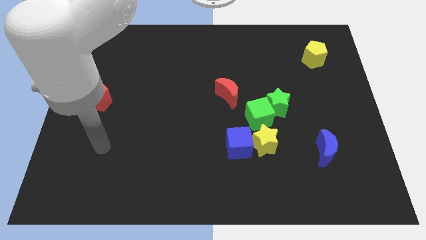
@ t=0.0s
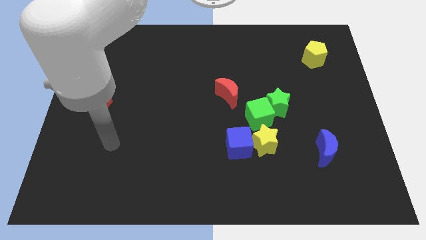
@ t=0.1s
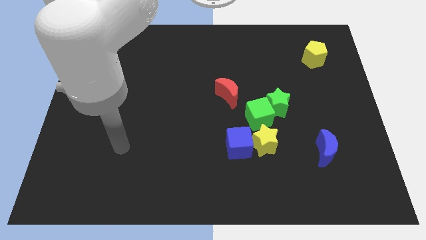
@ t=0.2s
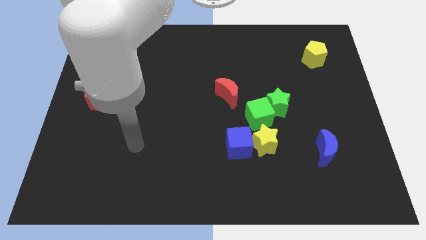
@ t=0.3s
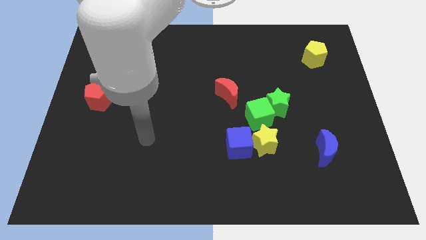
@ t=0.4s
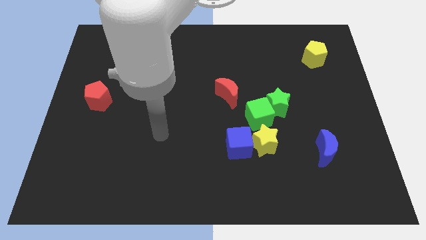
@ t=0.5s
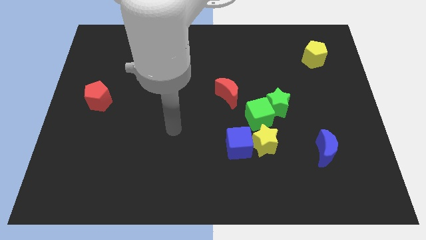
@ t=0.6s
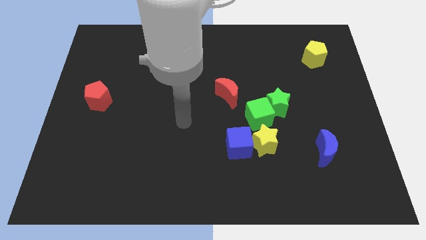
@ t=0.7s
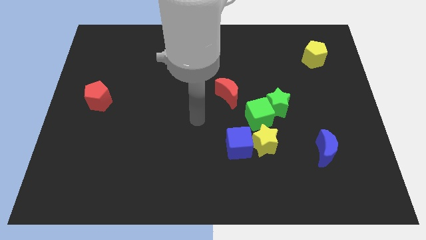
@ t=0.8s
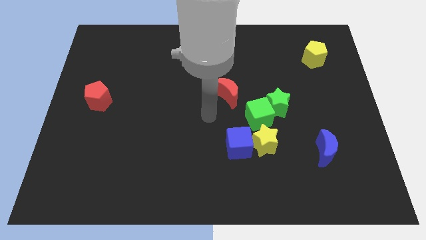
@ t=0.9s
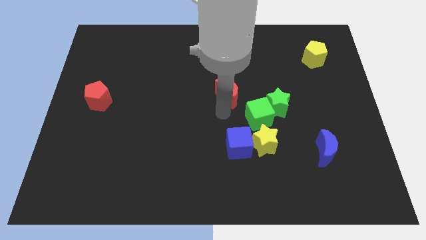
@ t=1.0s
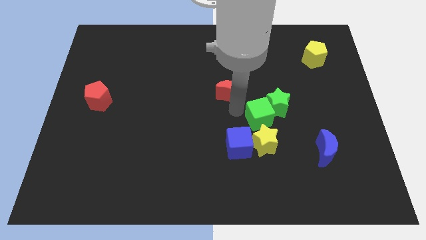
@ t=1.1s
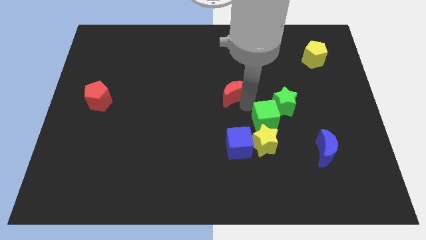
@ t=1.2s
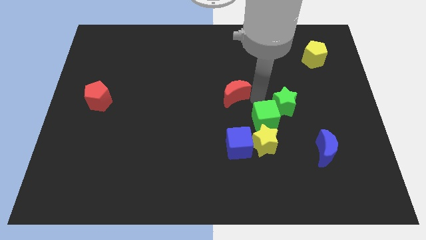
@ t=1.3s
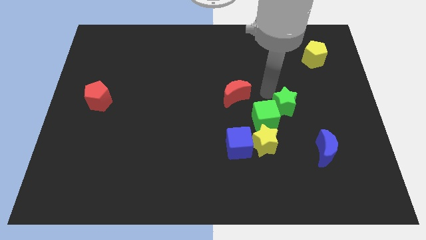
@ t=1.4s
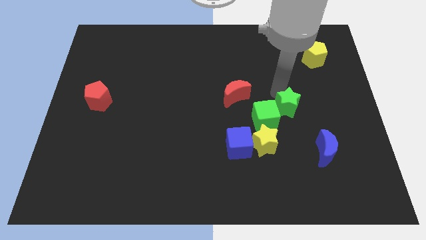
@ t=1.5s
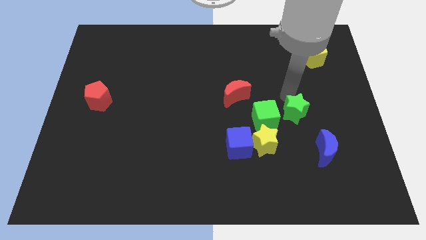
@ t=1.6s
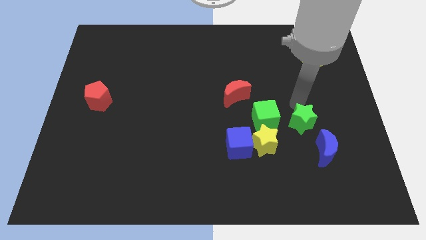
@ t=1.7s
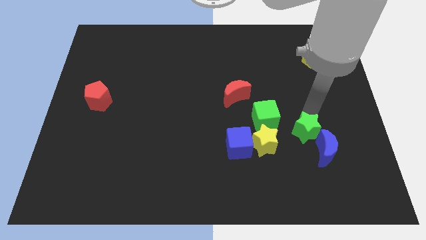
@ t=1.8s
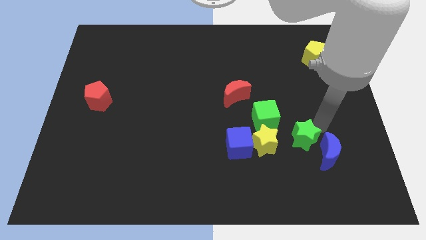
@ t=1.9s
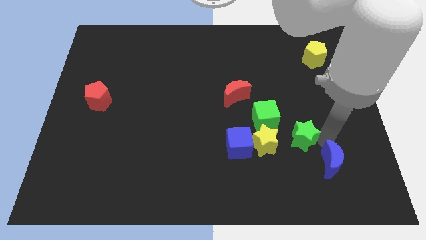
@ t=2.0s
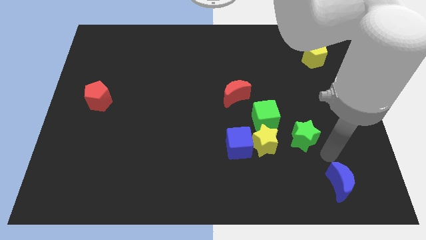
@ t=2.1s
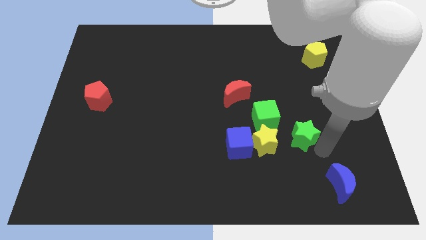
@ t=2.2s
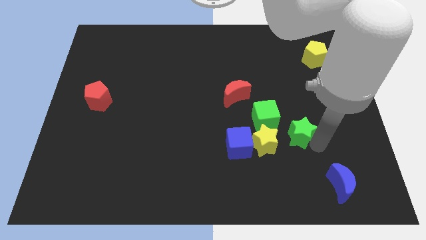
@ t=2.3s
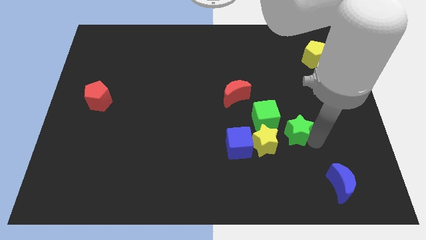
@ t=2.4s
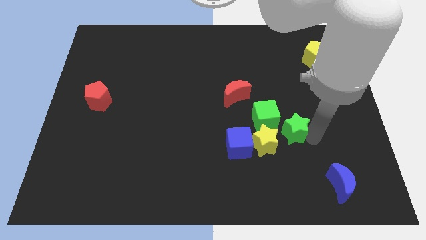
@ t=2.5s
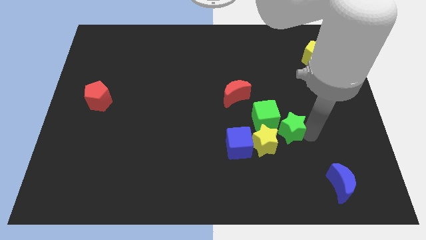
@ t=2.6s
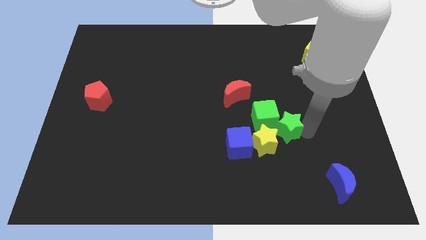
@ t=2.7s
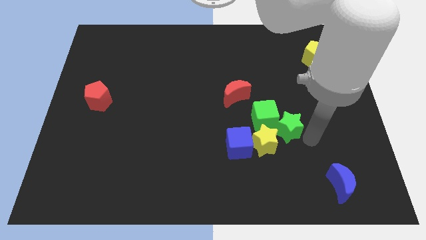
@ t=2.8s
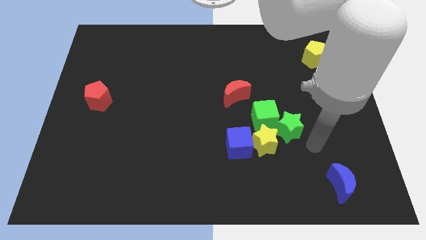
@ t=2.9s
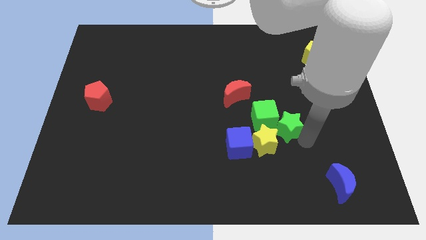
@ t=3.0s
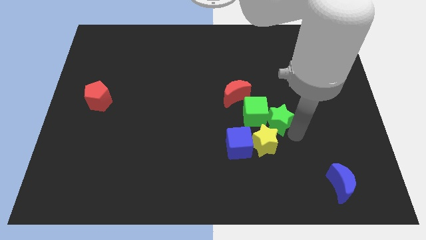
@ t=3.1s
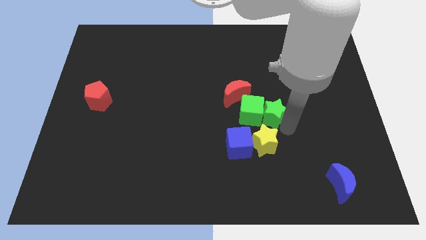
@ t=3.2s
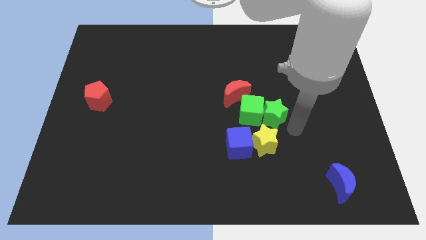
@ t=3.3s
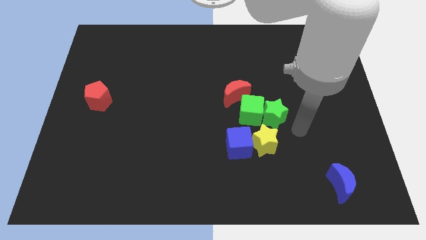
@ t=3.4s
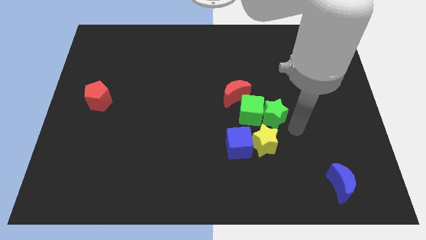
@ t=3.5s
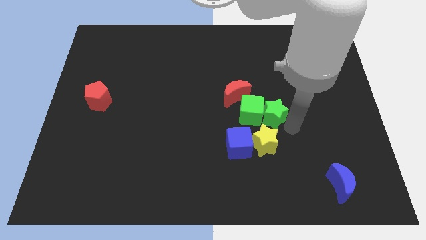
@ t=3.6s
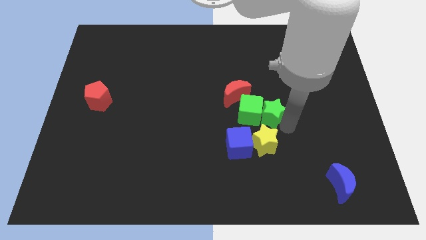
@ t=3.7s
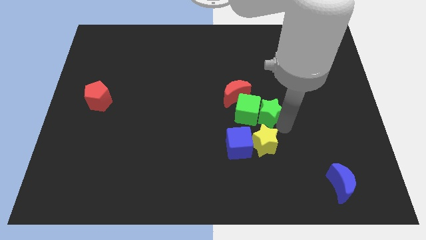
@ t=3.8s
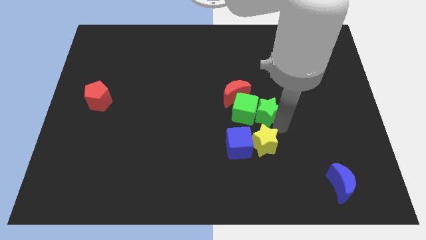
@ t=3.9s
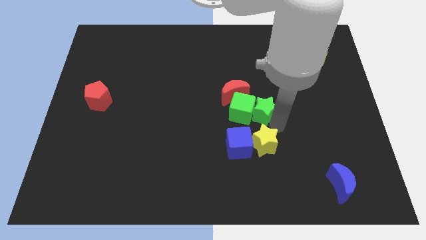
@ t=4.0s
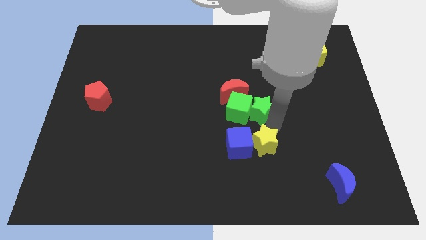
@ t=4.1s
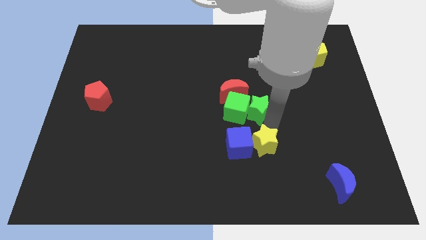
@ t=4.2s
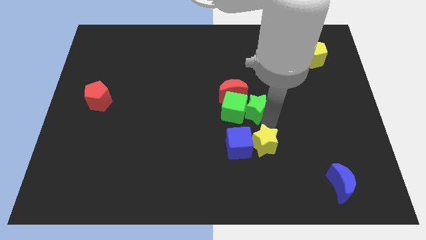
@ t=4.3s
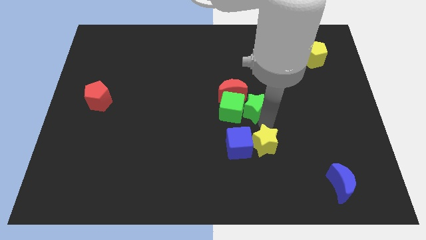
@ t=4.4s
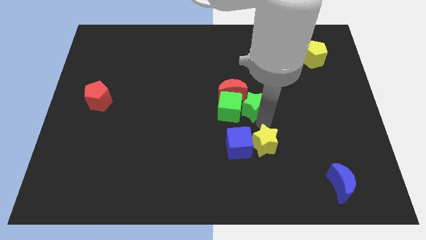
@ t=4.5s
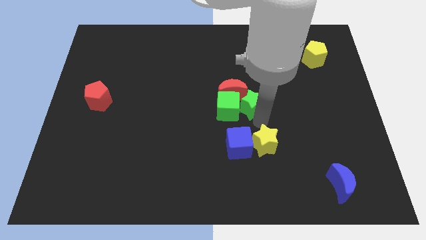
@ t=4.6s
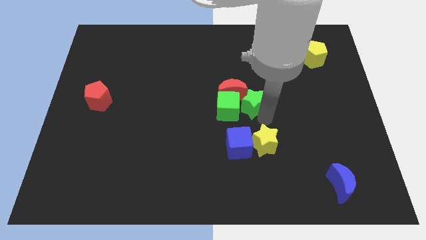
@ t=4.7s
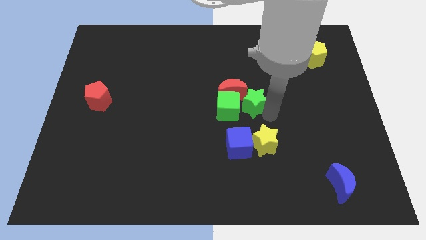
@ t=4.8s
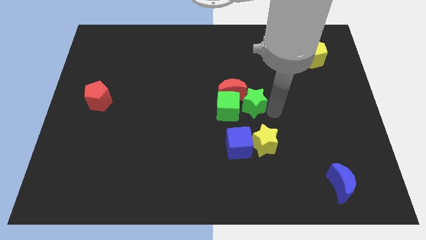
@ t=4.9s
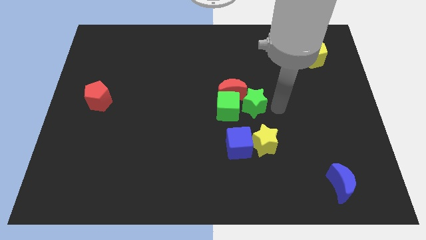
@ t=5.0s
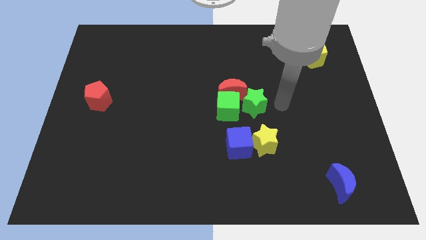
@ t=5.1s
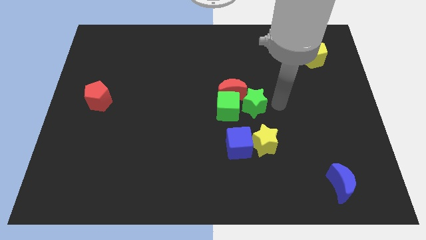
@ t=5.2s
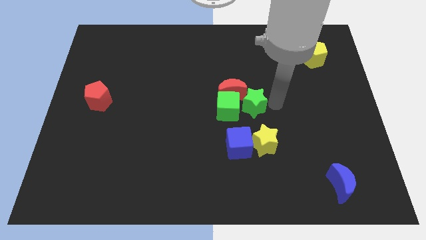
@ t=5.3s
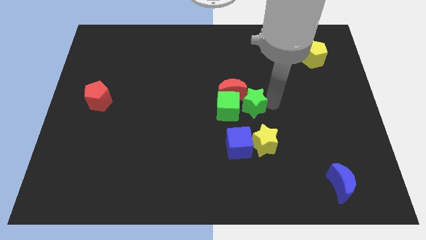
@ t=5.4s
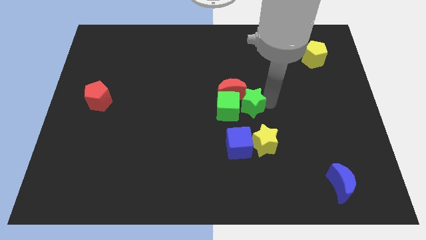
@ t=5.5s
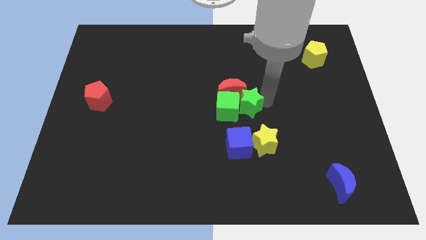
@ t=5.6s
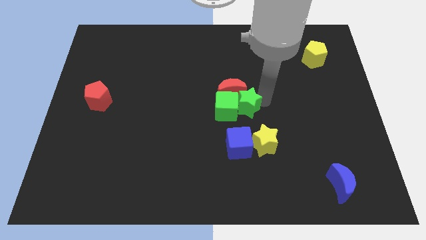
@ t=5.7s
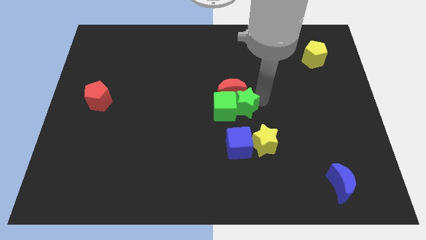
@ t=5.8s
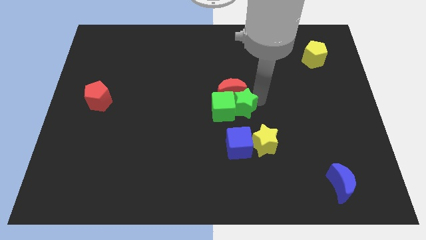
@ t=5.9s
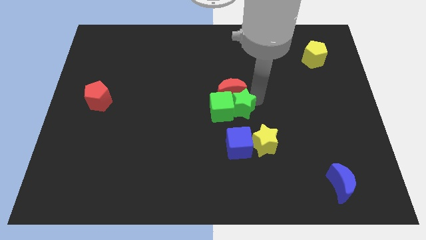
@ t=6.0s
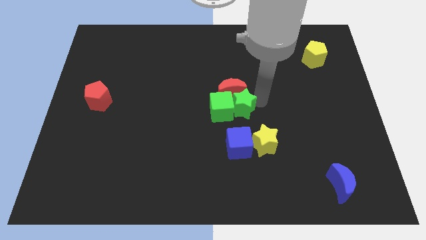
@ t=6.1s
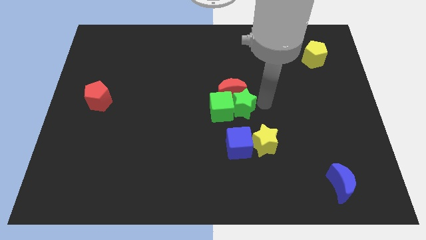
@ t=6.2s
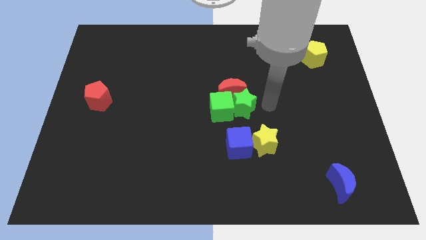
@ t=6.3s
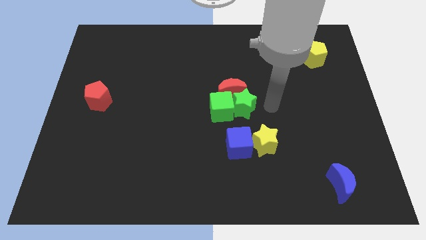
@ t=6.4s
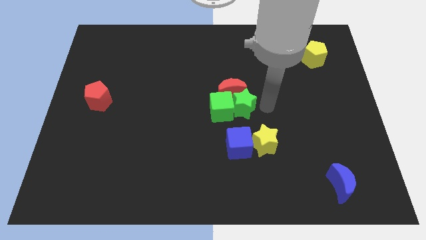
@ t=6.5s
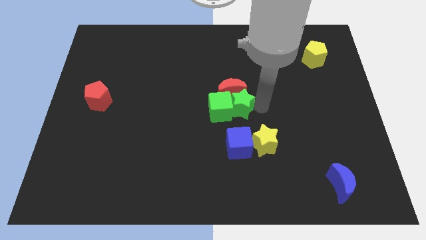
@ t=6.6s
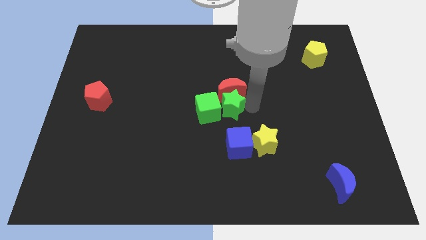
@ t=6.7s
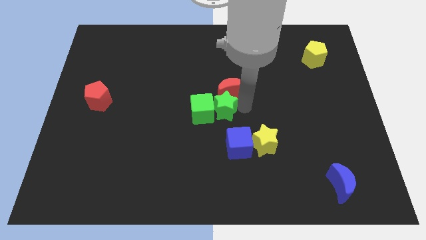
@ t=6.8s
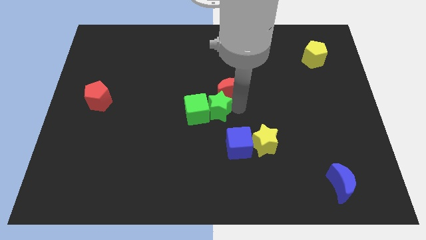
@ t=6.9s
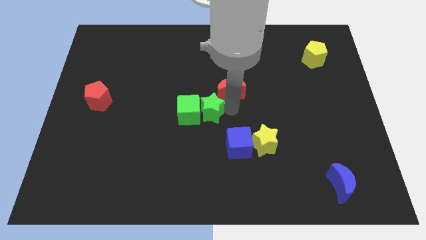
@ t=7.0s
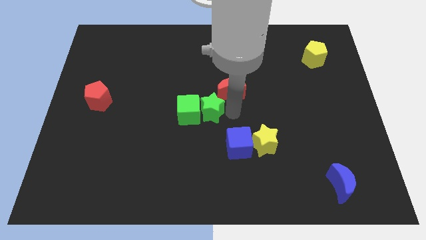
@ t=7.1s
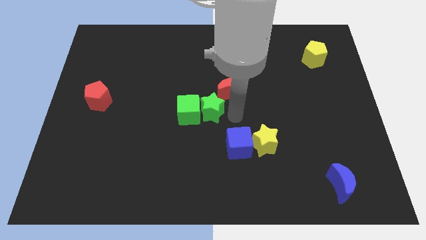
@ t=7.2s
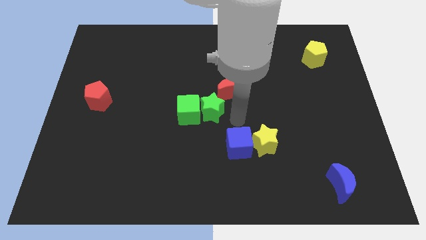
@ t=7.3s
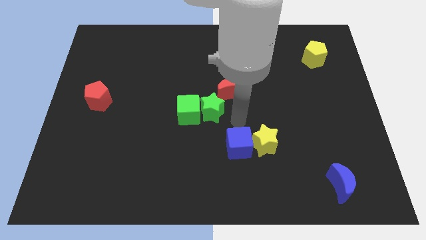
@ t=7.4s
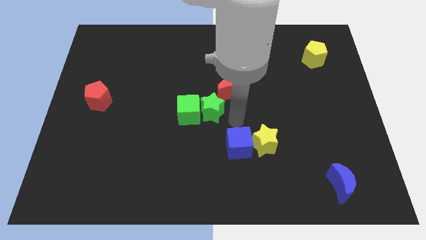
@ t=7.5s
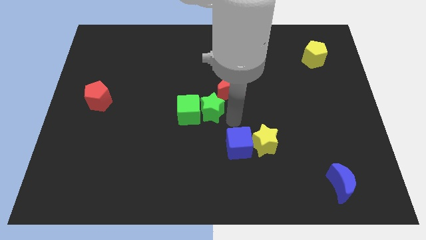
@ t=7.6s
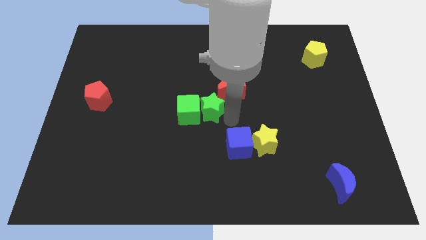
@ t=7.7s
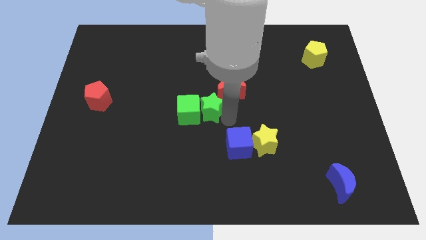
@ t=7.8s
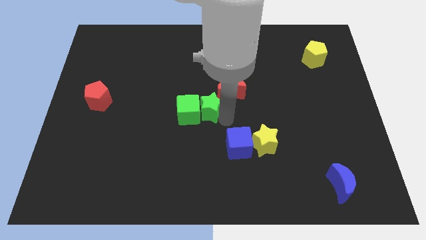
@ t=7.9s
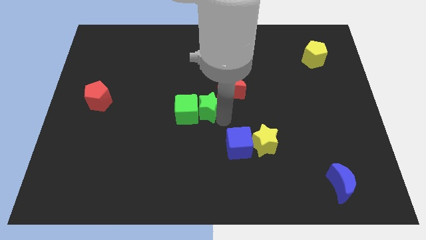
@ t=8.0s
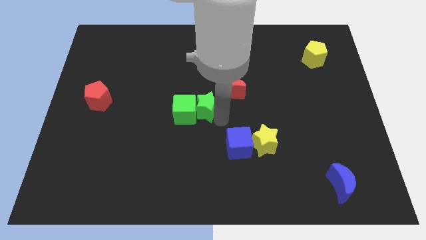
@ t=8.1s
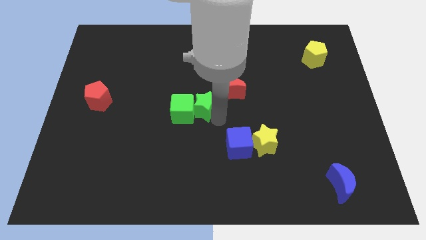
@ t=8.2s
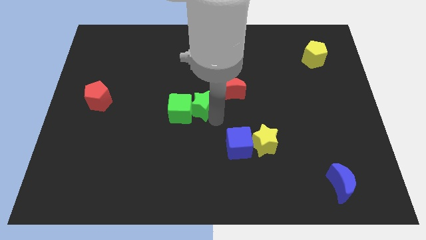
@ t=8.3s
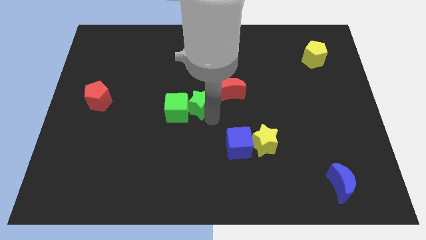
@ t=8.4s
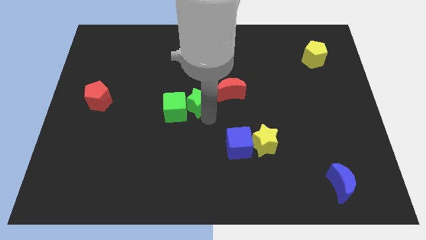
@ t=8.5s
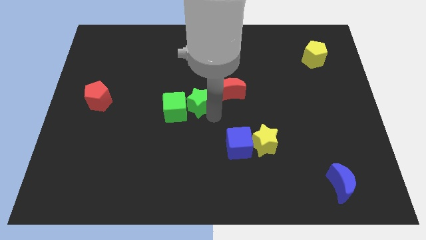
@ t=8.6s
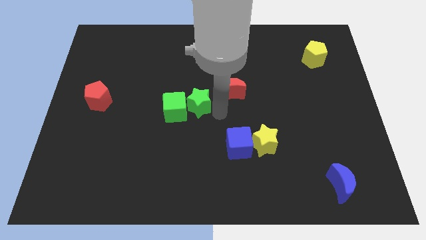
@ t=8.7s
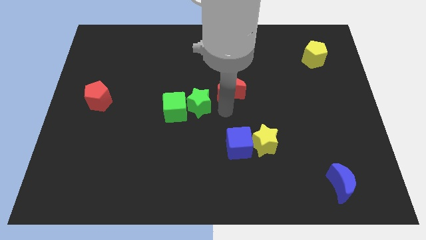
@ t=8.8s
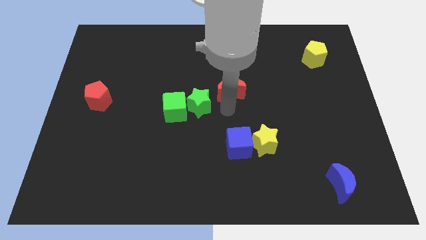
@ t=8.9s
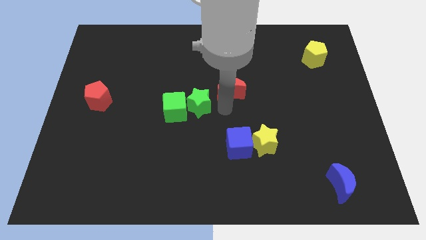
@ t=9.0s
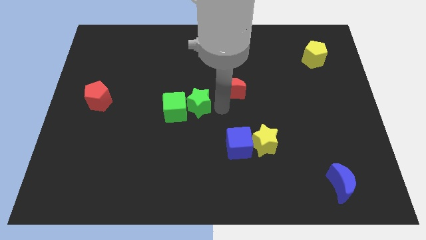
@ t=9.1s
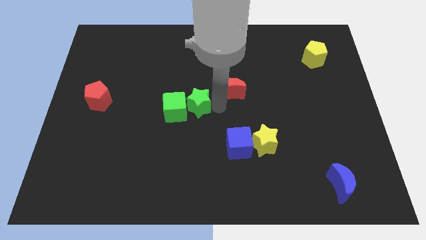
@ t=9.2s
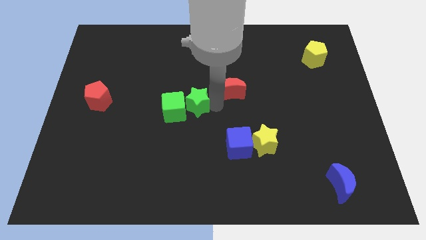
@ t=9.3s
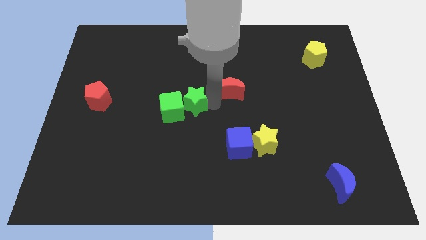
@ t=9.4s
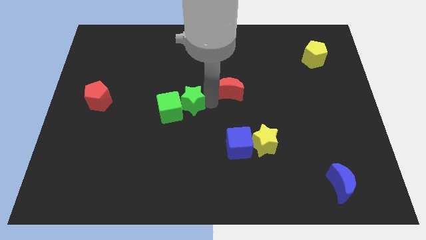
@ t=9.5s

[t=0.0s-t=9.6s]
move the green star to the left
